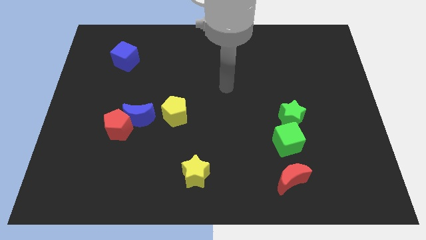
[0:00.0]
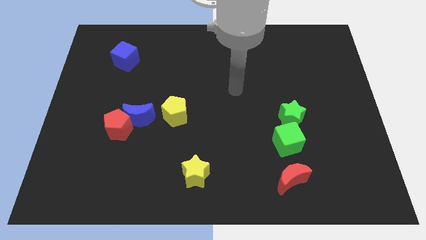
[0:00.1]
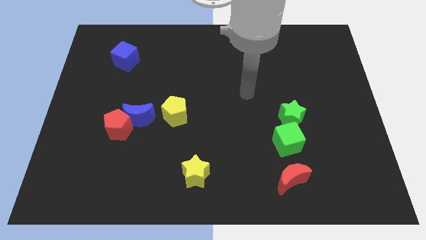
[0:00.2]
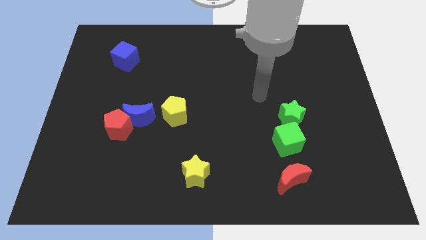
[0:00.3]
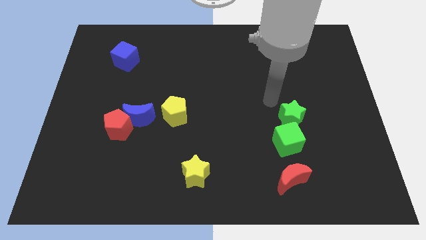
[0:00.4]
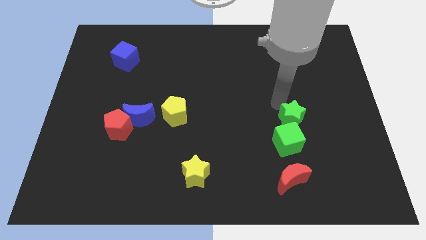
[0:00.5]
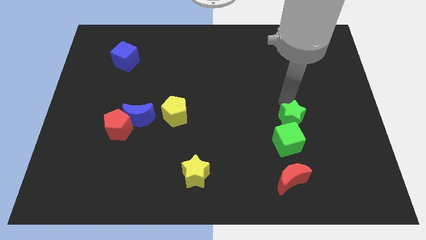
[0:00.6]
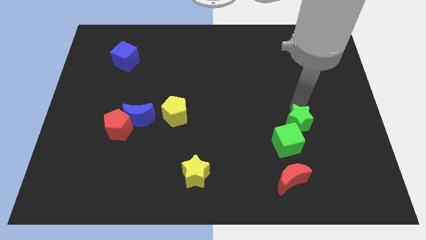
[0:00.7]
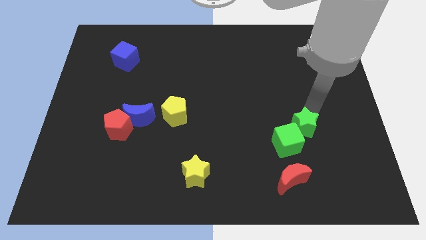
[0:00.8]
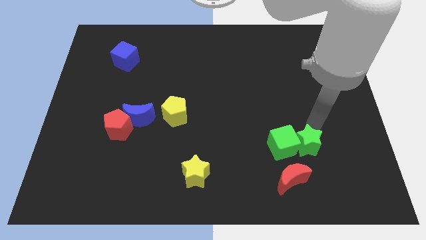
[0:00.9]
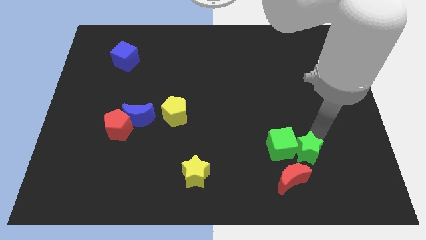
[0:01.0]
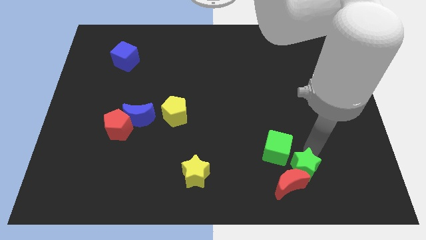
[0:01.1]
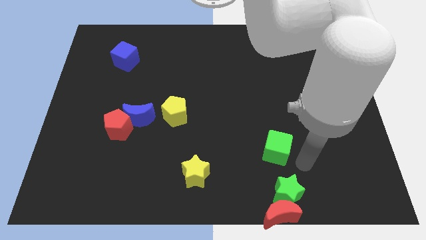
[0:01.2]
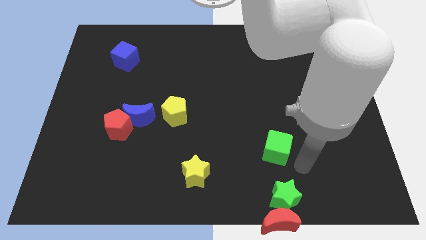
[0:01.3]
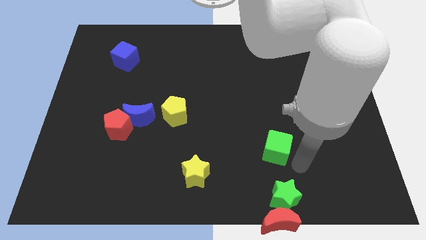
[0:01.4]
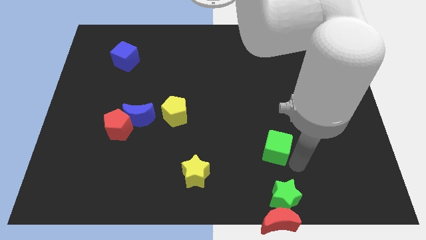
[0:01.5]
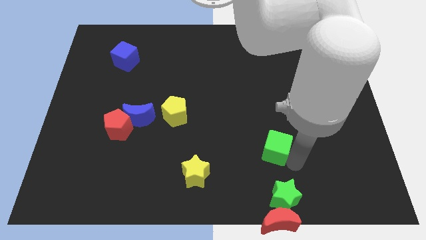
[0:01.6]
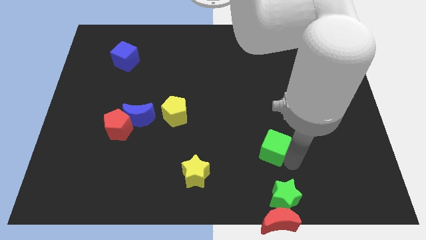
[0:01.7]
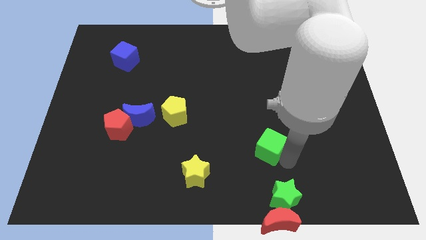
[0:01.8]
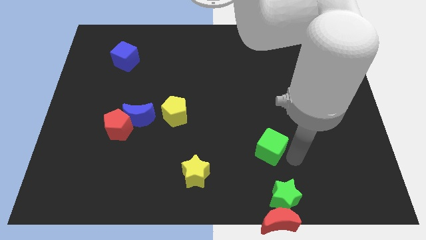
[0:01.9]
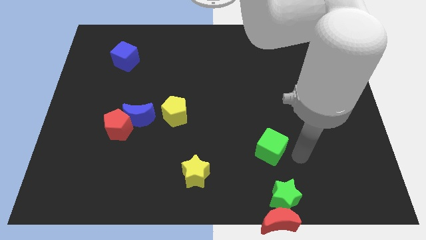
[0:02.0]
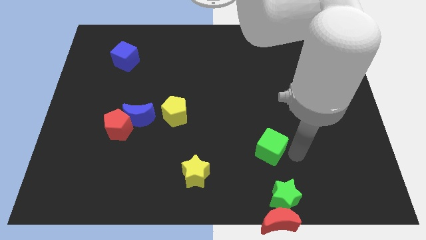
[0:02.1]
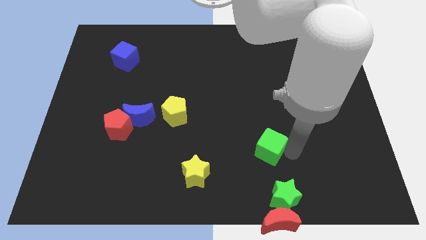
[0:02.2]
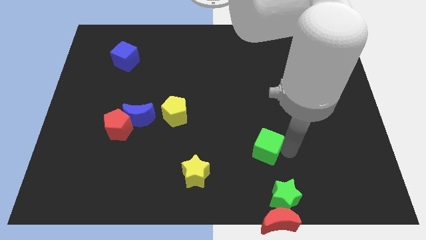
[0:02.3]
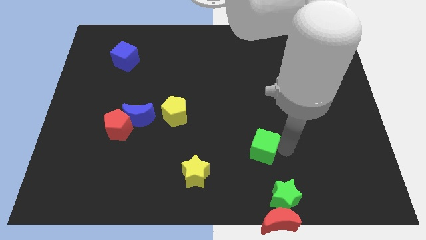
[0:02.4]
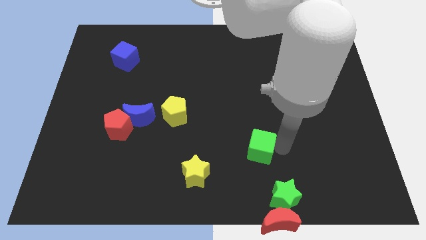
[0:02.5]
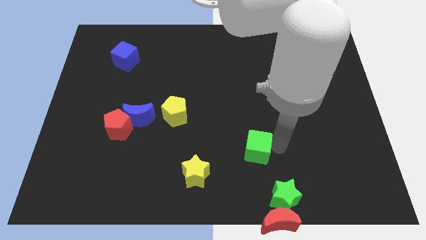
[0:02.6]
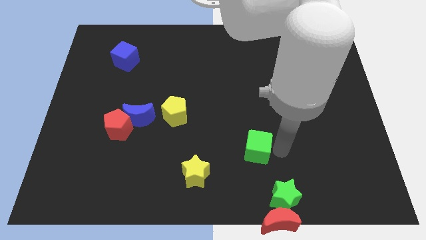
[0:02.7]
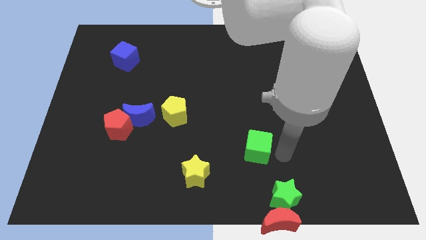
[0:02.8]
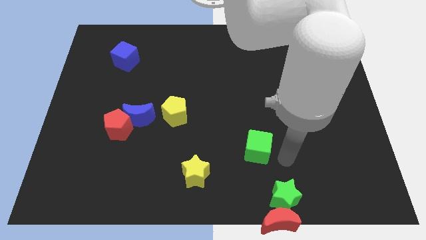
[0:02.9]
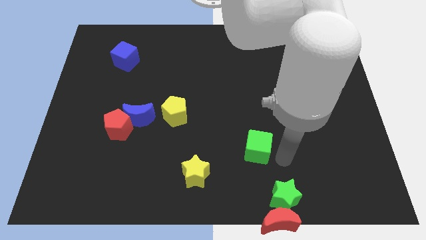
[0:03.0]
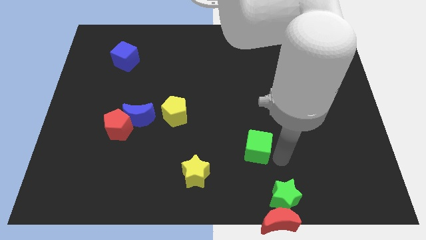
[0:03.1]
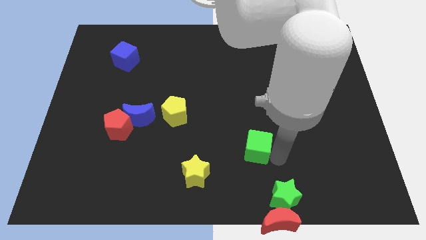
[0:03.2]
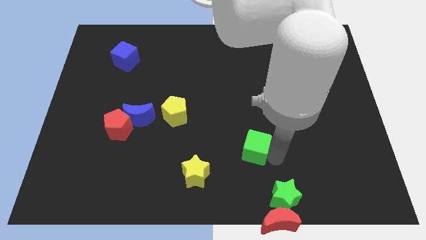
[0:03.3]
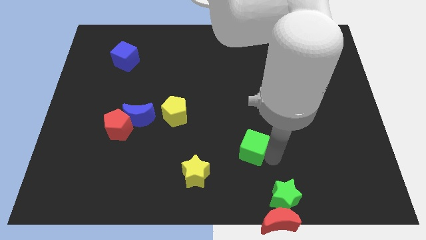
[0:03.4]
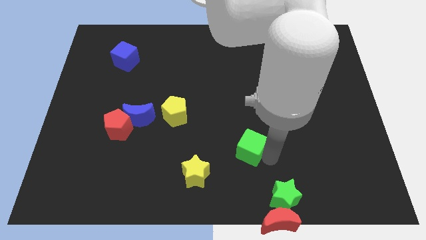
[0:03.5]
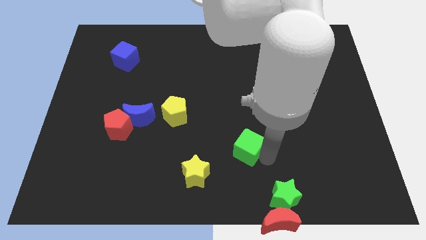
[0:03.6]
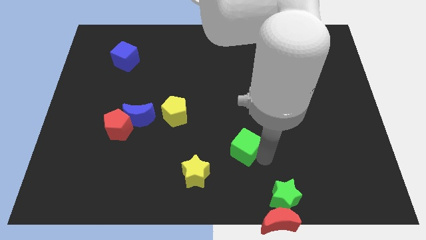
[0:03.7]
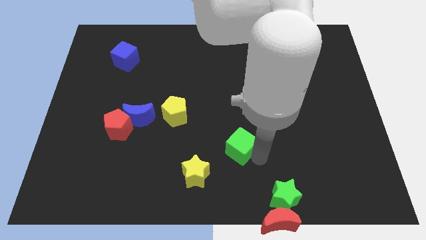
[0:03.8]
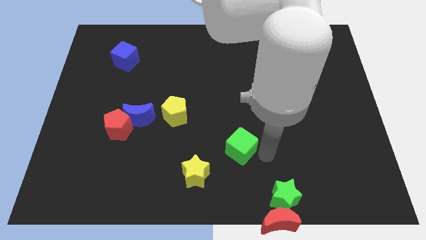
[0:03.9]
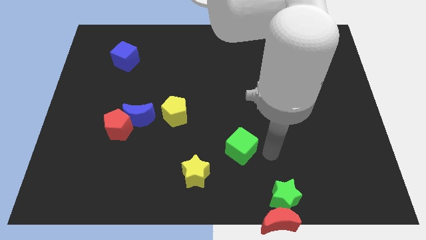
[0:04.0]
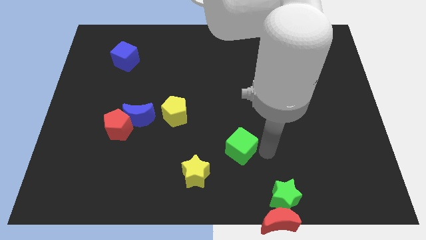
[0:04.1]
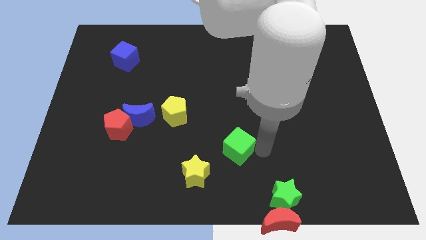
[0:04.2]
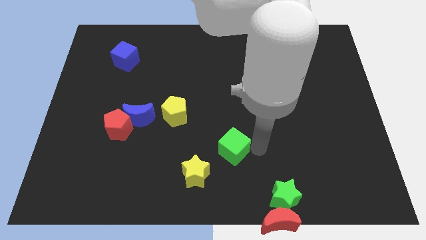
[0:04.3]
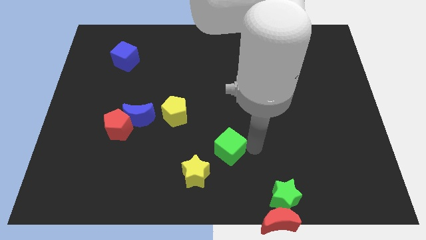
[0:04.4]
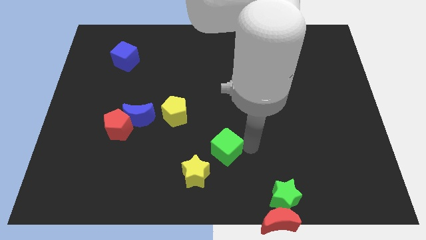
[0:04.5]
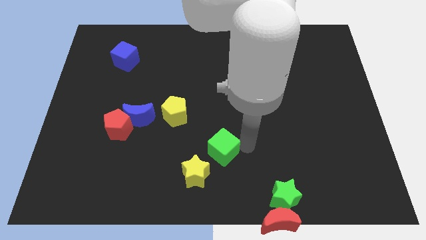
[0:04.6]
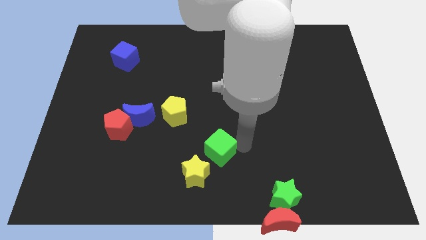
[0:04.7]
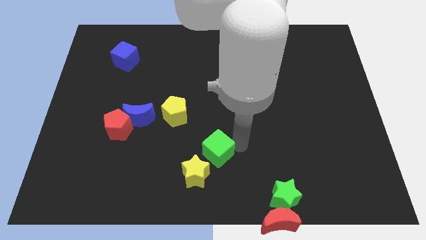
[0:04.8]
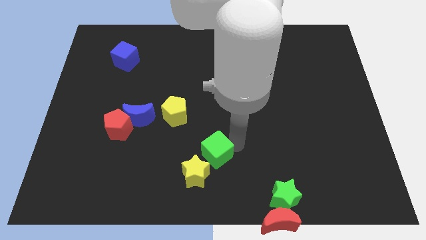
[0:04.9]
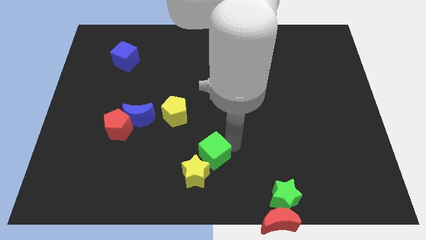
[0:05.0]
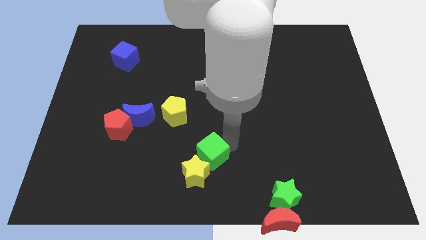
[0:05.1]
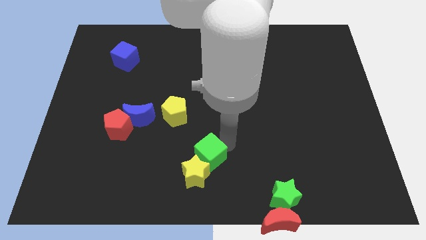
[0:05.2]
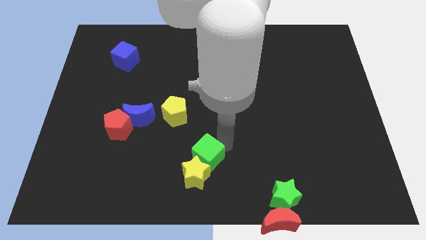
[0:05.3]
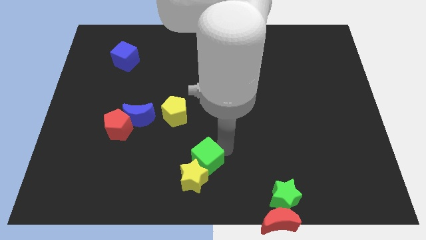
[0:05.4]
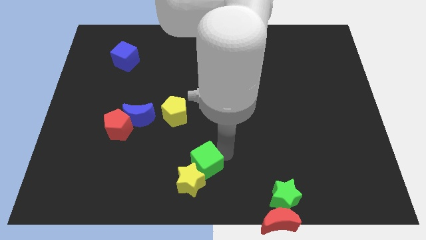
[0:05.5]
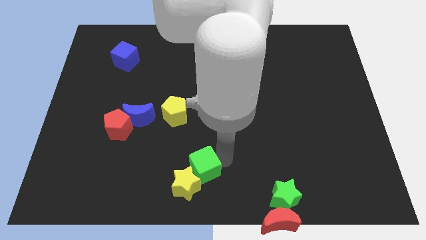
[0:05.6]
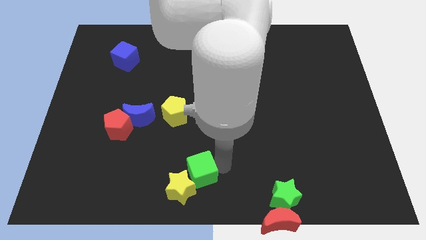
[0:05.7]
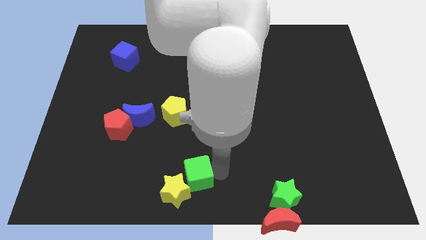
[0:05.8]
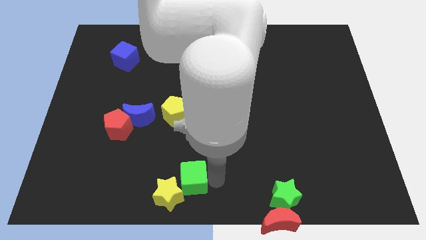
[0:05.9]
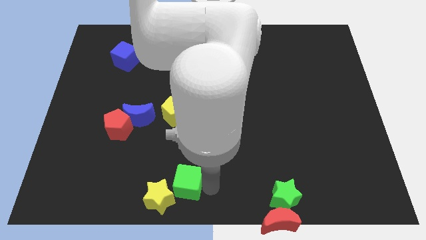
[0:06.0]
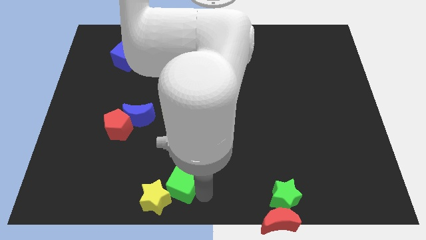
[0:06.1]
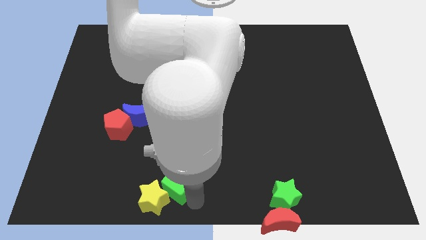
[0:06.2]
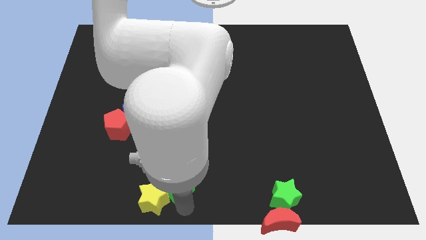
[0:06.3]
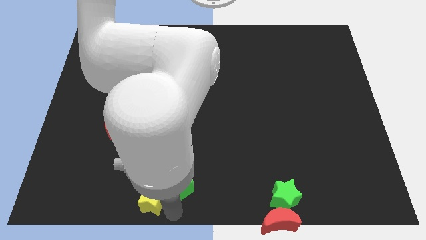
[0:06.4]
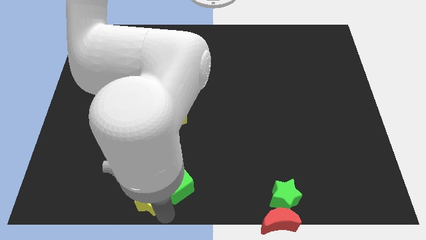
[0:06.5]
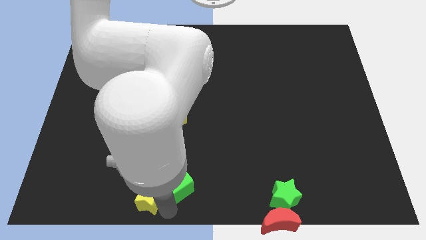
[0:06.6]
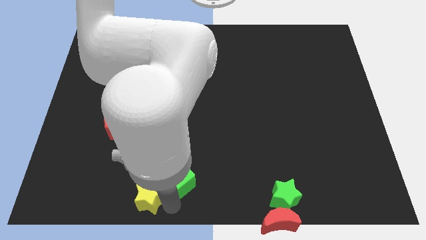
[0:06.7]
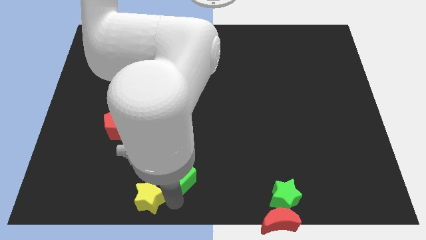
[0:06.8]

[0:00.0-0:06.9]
push the green cube left

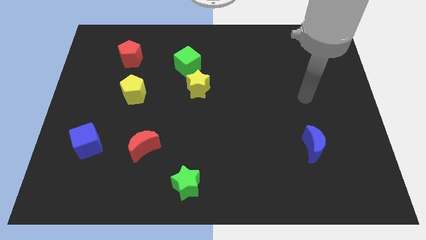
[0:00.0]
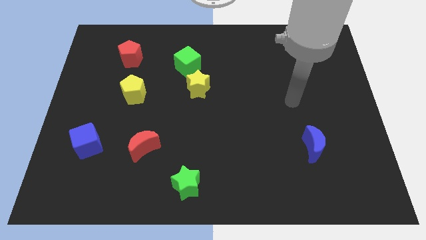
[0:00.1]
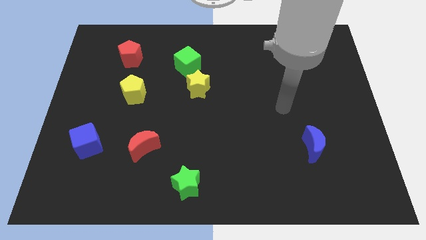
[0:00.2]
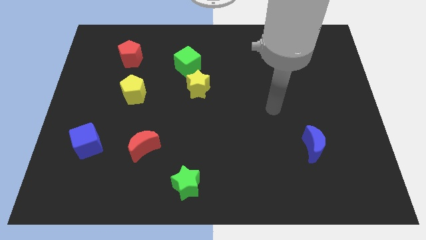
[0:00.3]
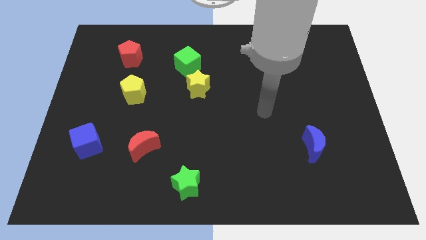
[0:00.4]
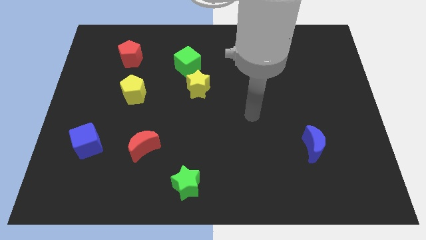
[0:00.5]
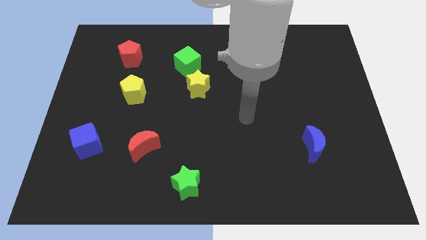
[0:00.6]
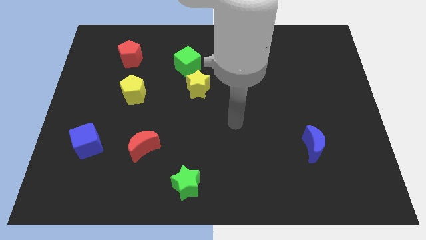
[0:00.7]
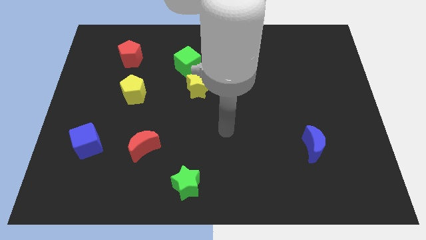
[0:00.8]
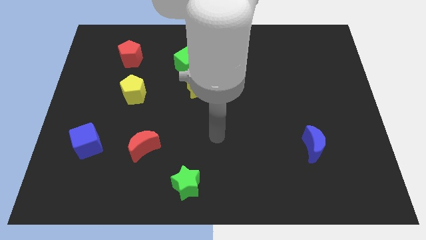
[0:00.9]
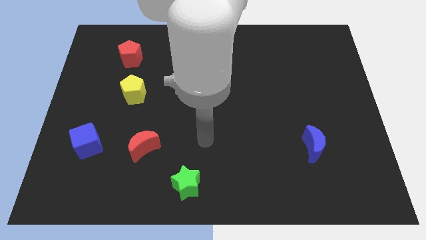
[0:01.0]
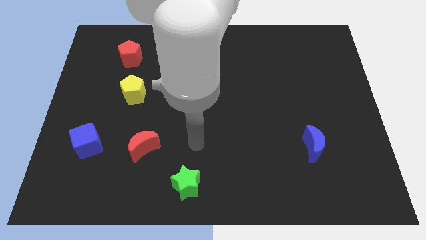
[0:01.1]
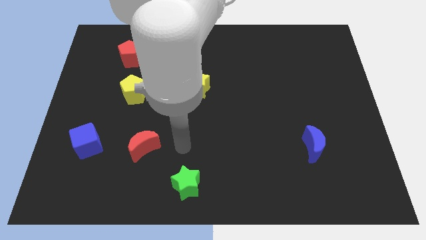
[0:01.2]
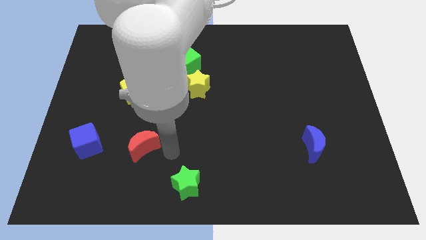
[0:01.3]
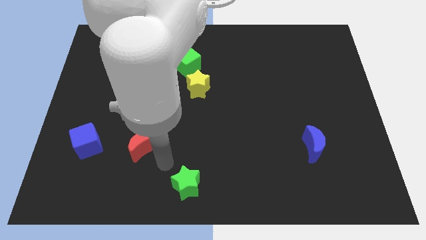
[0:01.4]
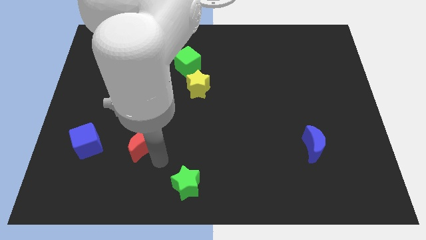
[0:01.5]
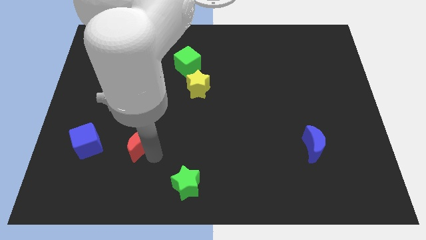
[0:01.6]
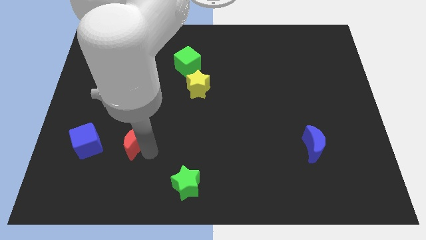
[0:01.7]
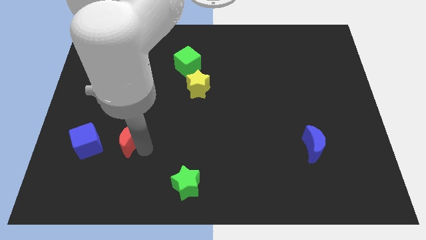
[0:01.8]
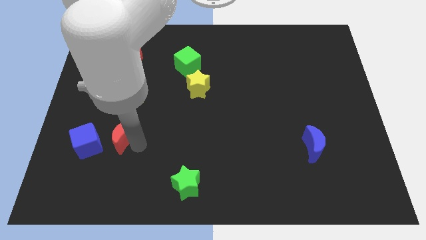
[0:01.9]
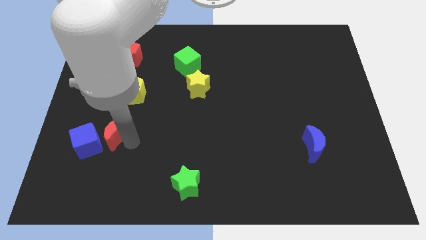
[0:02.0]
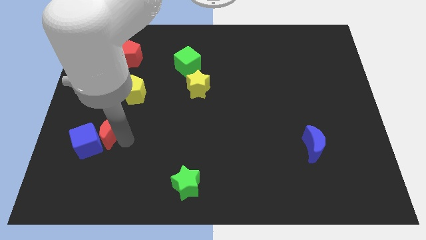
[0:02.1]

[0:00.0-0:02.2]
push the red moon slightly up and then left
